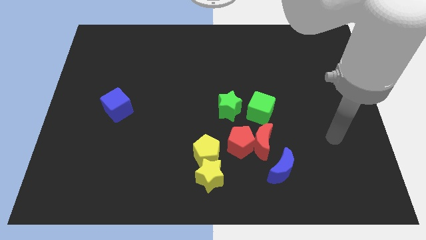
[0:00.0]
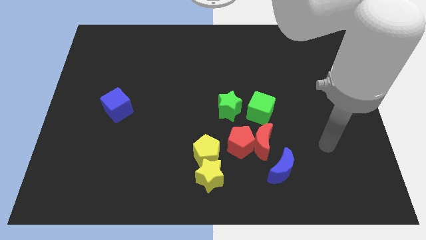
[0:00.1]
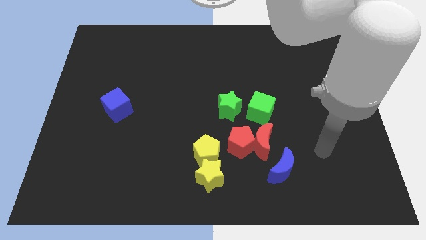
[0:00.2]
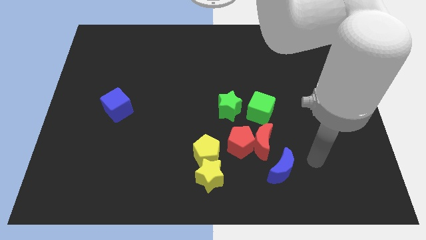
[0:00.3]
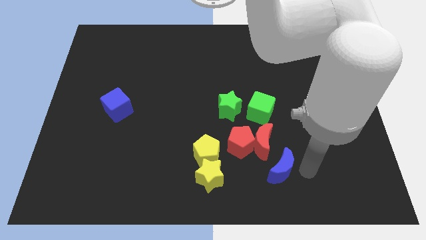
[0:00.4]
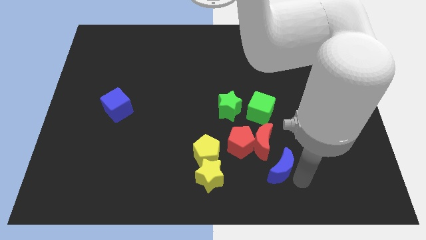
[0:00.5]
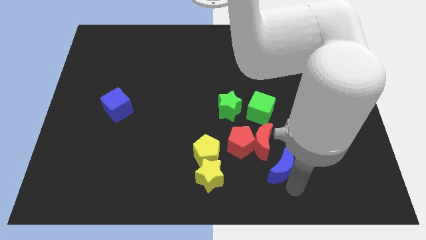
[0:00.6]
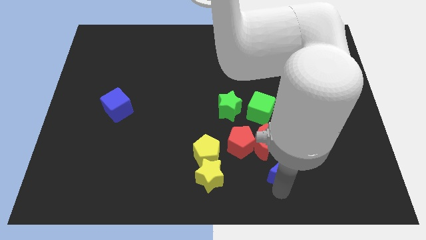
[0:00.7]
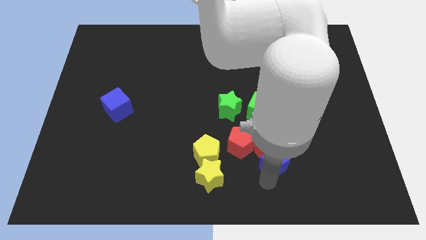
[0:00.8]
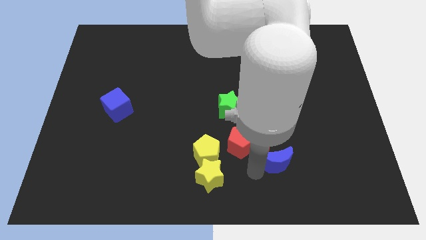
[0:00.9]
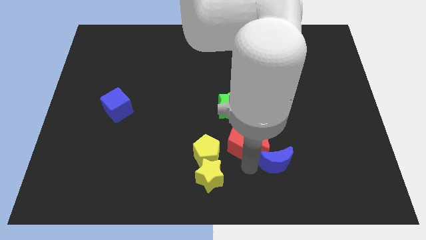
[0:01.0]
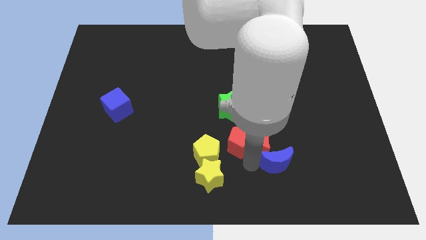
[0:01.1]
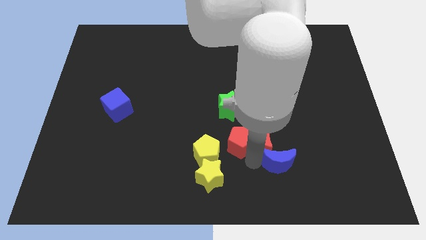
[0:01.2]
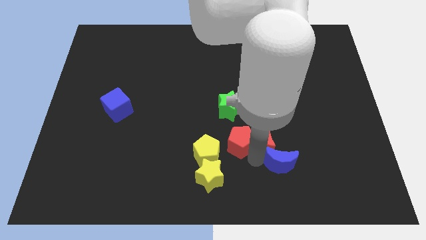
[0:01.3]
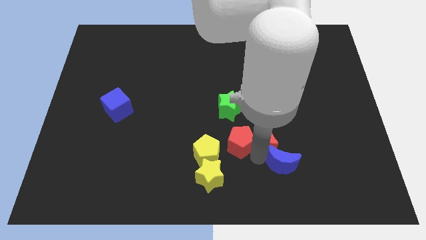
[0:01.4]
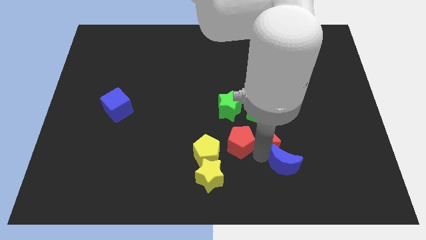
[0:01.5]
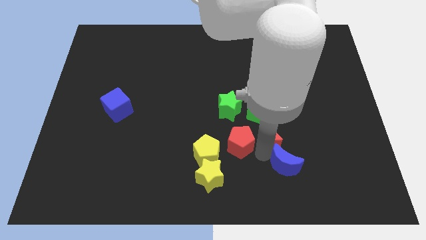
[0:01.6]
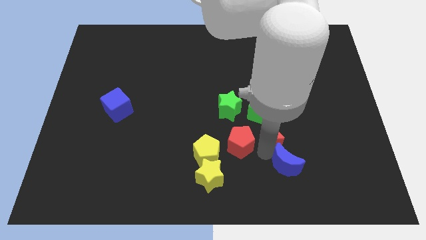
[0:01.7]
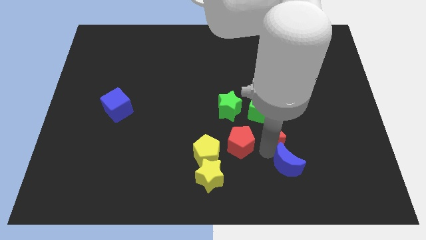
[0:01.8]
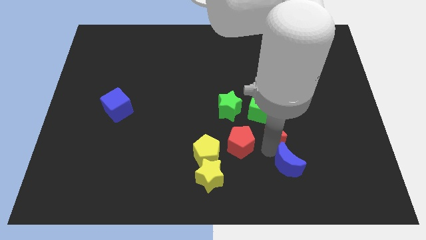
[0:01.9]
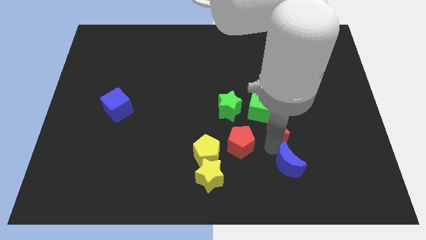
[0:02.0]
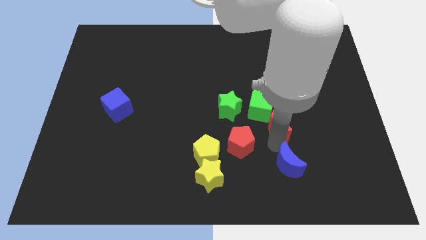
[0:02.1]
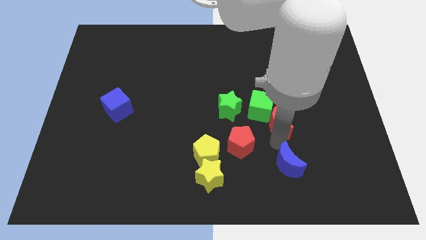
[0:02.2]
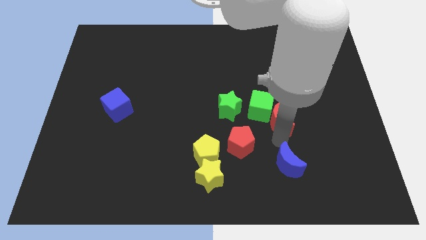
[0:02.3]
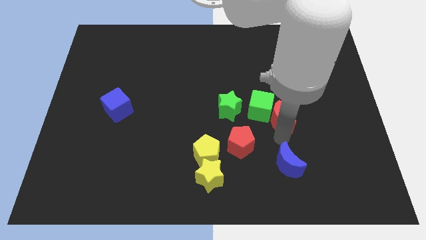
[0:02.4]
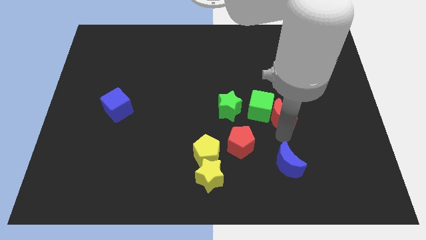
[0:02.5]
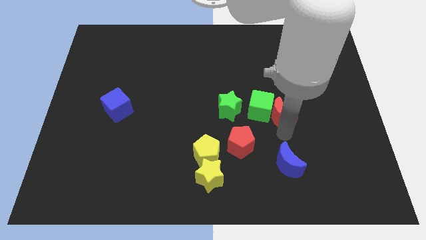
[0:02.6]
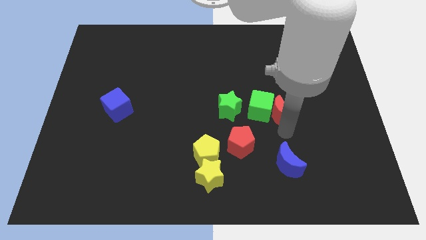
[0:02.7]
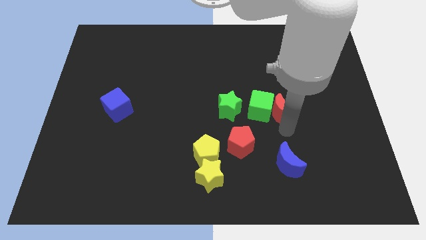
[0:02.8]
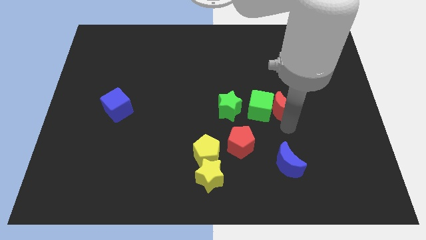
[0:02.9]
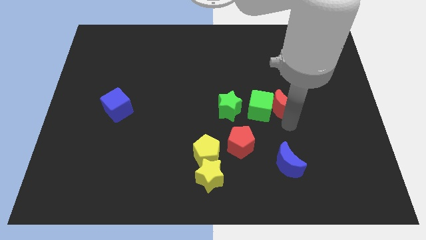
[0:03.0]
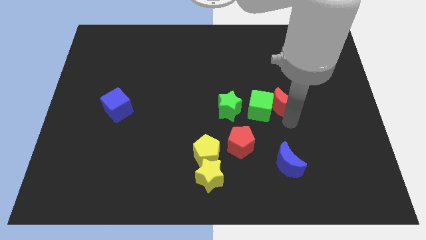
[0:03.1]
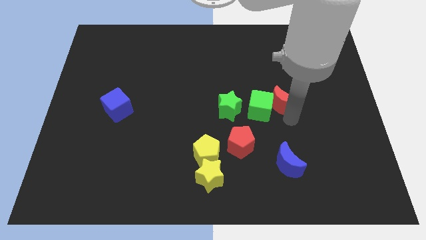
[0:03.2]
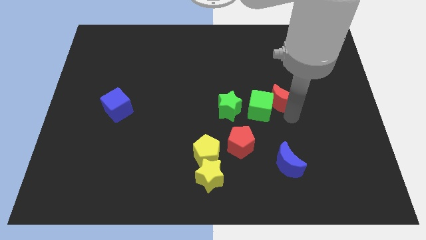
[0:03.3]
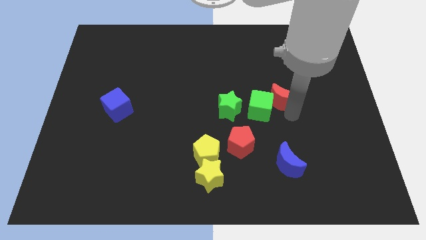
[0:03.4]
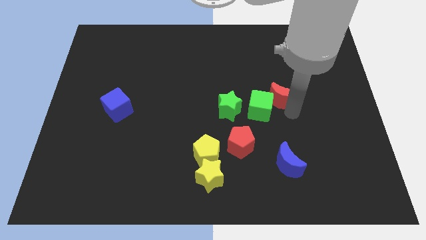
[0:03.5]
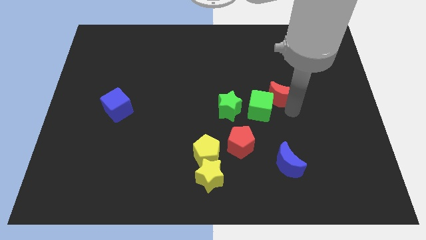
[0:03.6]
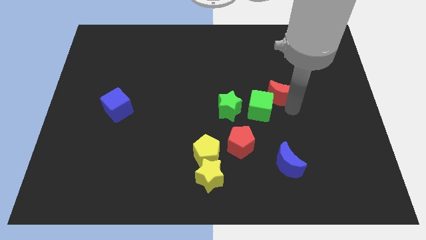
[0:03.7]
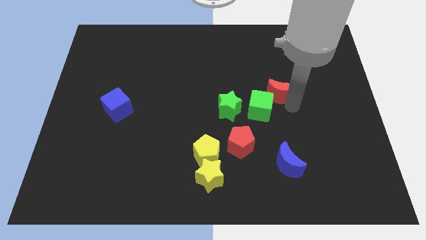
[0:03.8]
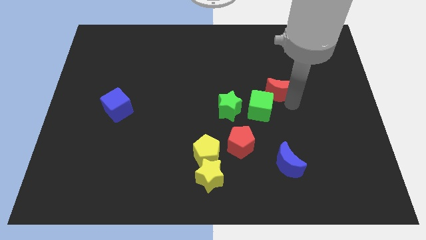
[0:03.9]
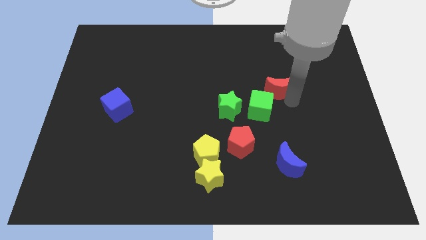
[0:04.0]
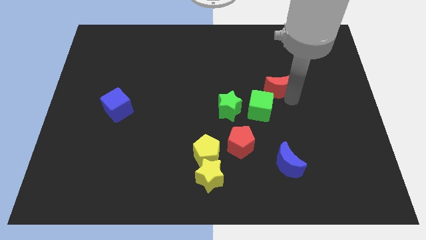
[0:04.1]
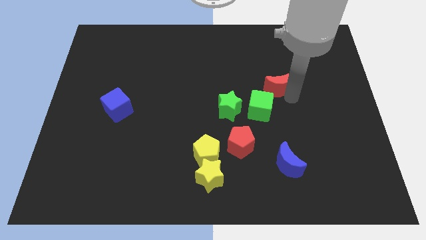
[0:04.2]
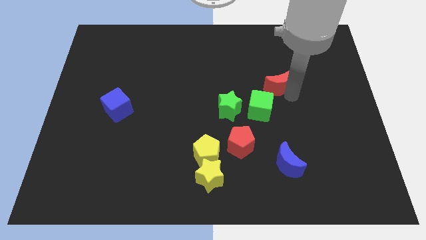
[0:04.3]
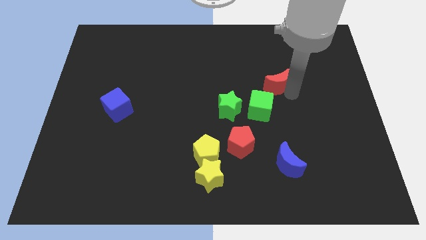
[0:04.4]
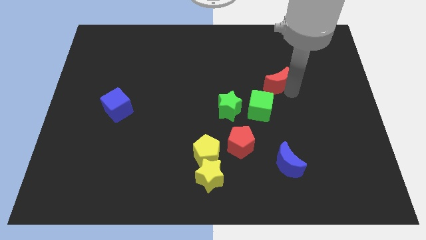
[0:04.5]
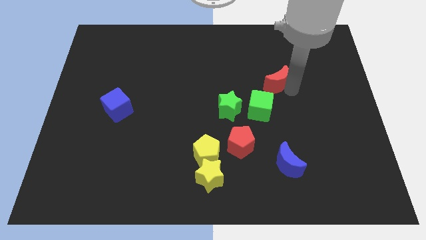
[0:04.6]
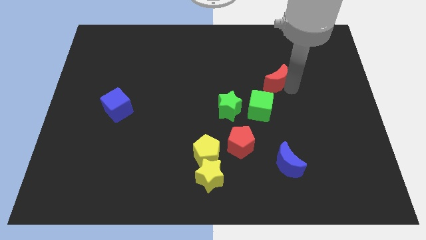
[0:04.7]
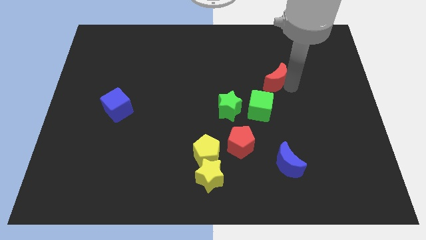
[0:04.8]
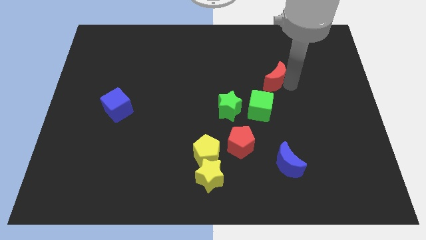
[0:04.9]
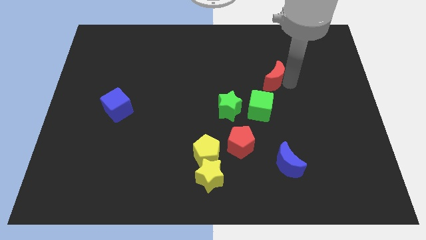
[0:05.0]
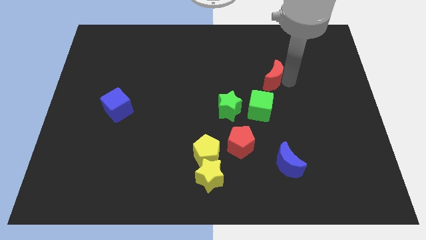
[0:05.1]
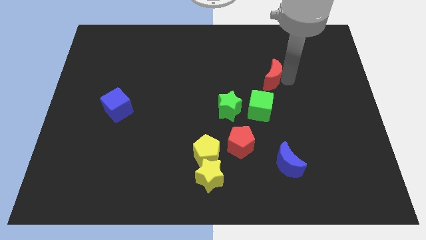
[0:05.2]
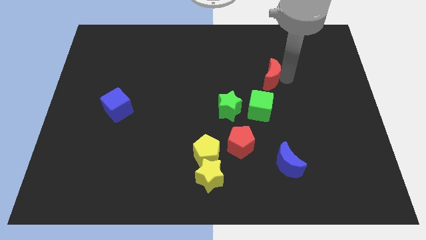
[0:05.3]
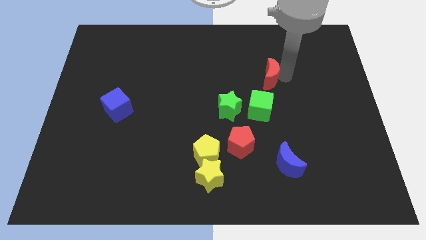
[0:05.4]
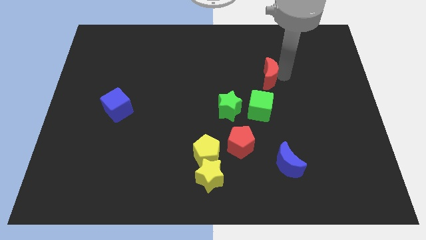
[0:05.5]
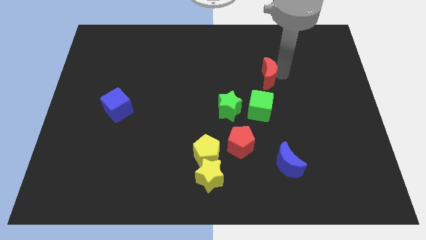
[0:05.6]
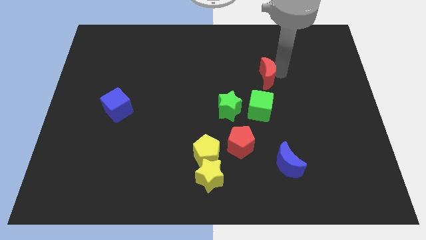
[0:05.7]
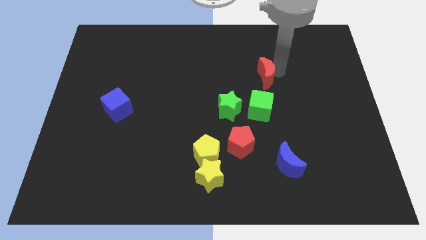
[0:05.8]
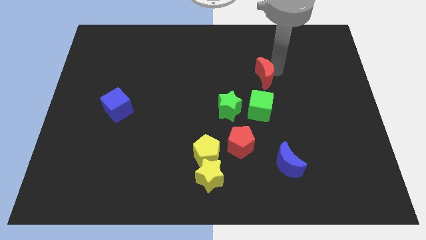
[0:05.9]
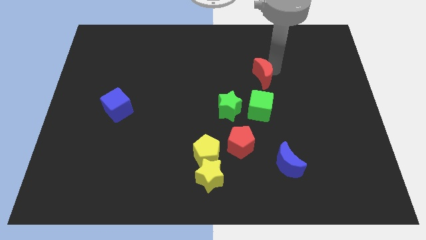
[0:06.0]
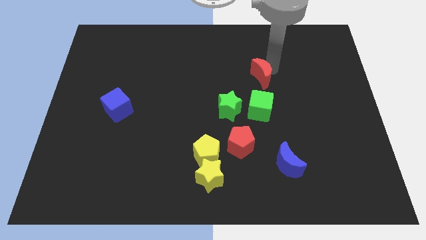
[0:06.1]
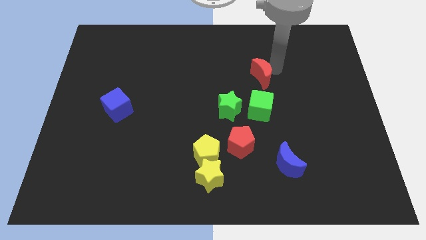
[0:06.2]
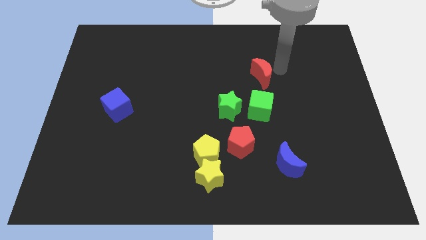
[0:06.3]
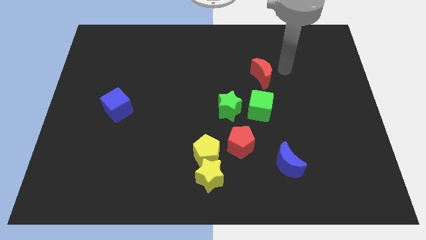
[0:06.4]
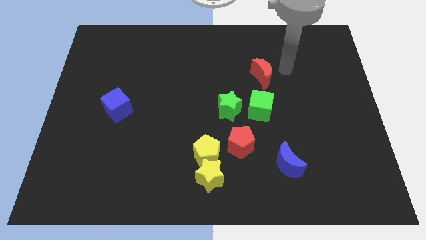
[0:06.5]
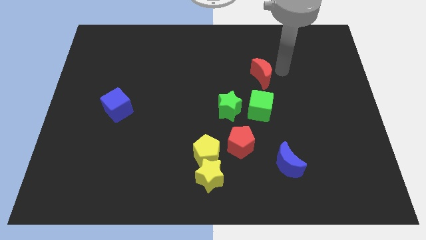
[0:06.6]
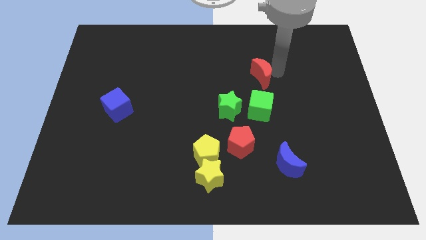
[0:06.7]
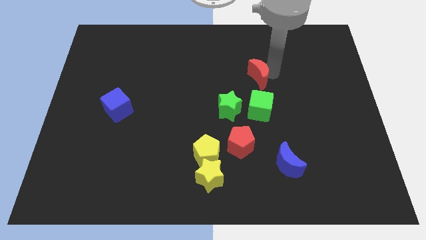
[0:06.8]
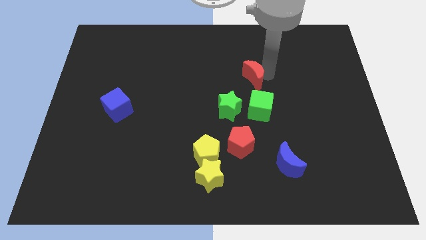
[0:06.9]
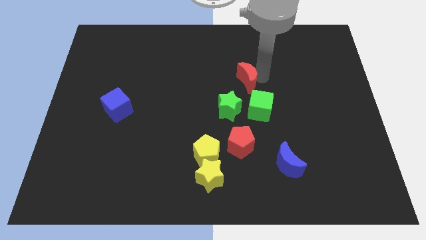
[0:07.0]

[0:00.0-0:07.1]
put the red moon to the top side of the green star
